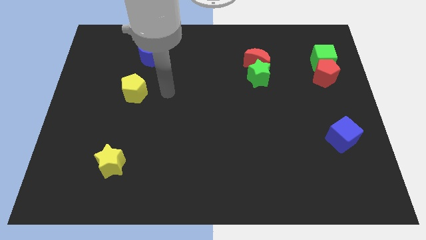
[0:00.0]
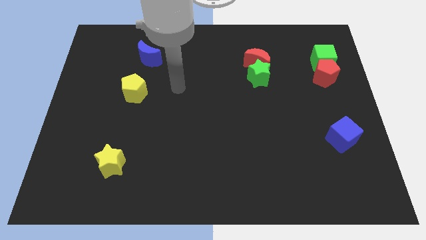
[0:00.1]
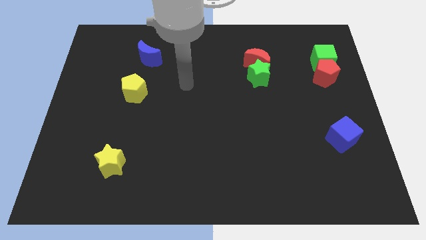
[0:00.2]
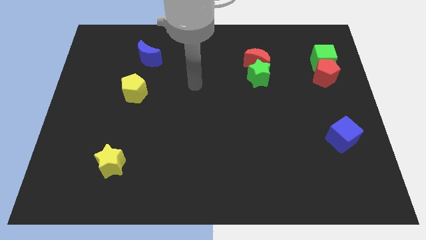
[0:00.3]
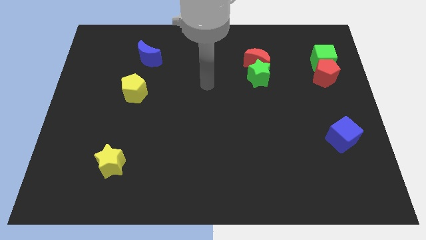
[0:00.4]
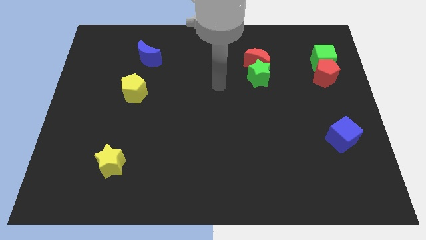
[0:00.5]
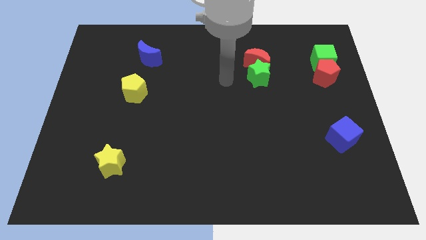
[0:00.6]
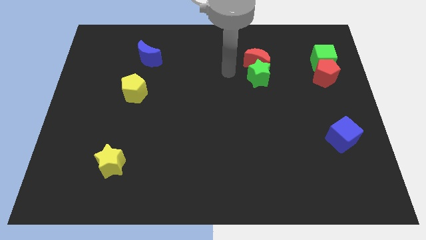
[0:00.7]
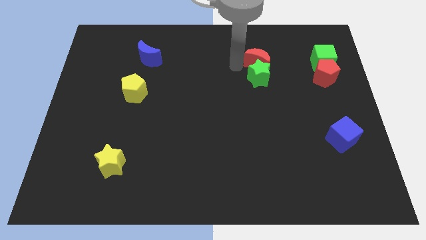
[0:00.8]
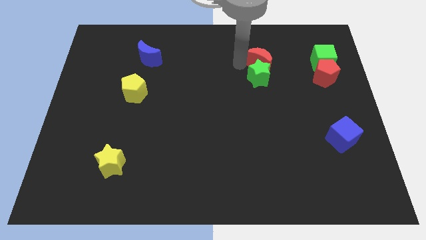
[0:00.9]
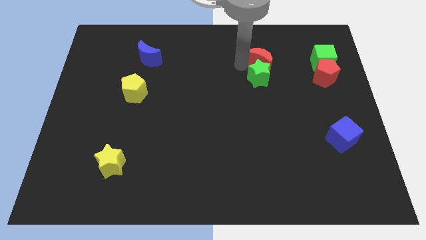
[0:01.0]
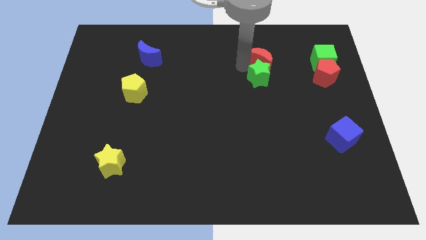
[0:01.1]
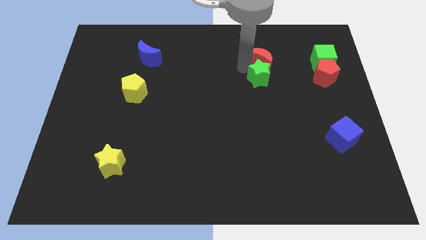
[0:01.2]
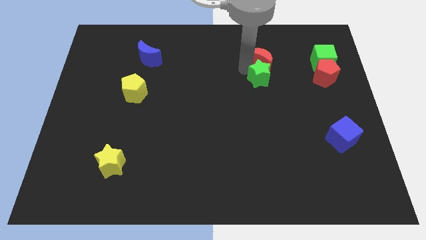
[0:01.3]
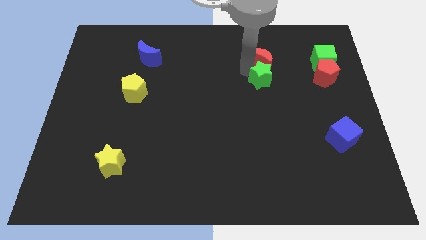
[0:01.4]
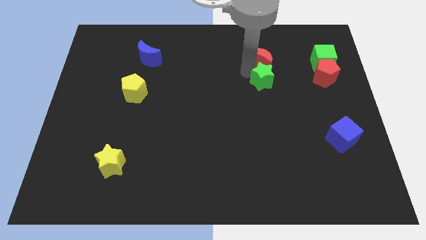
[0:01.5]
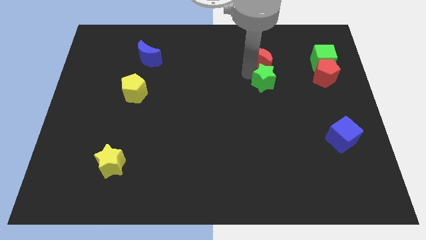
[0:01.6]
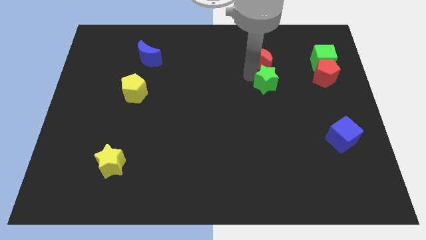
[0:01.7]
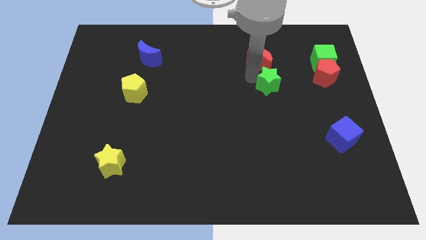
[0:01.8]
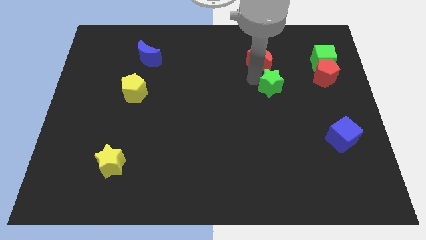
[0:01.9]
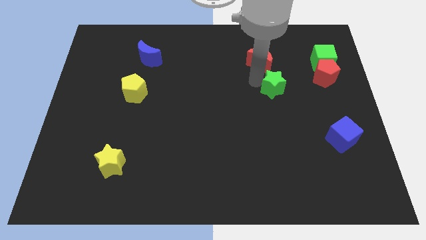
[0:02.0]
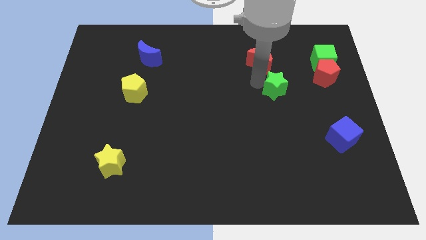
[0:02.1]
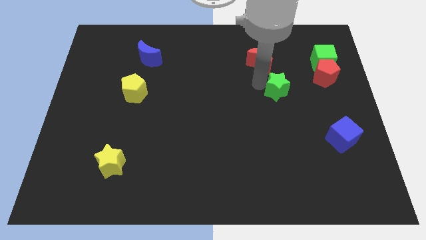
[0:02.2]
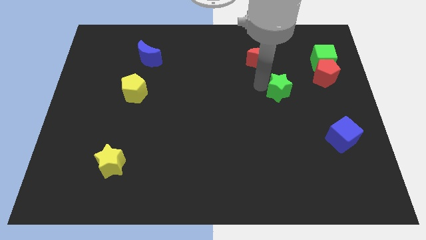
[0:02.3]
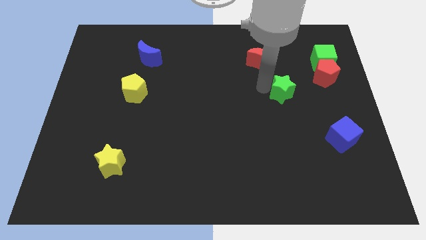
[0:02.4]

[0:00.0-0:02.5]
slide the green star a little bit down and to the right diagonally

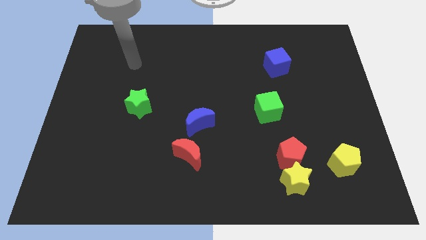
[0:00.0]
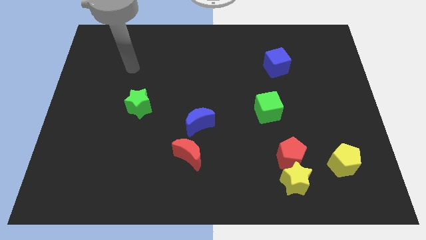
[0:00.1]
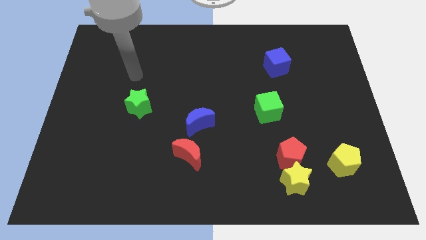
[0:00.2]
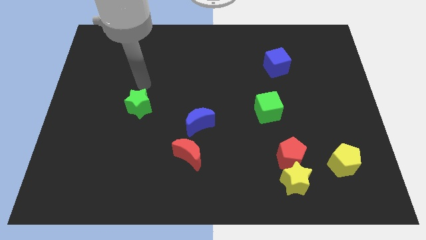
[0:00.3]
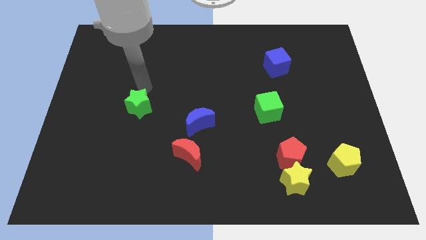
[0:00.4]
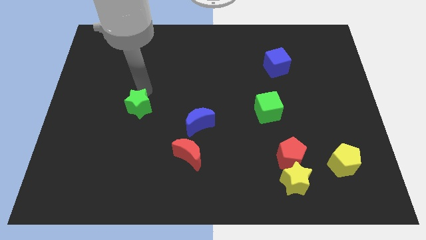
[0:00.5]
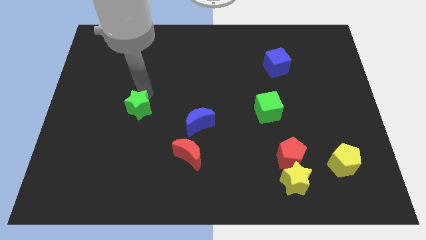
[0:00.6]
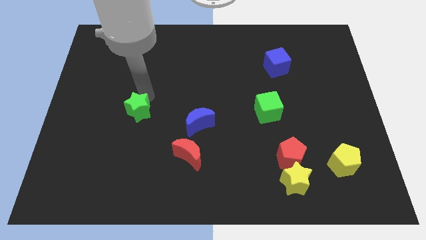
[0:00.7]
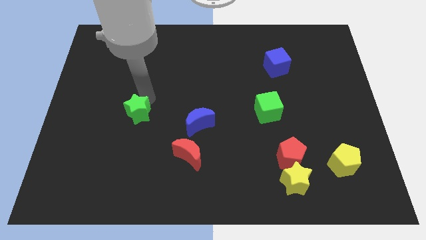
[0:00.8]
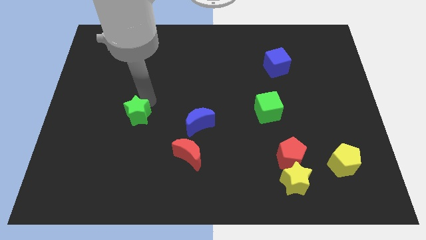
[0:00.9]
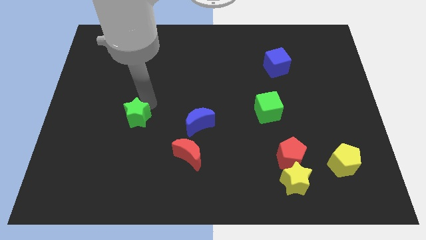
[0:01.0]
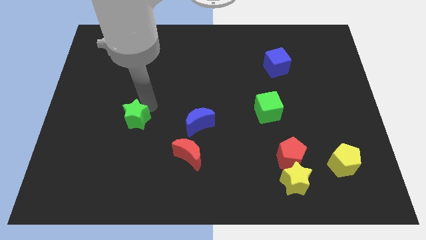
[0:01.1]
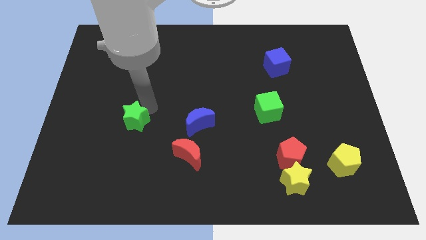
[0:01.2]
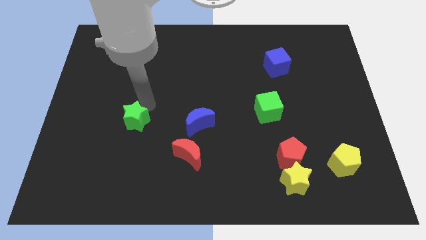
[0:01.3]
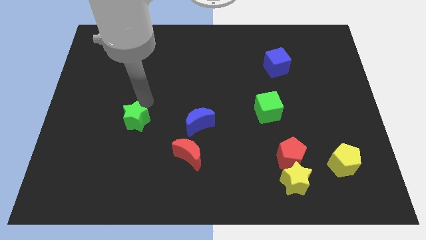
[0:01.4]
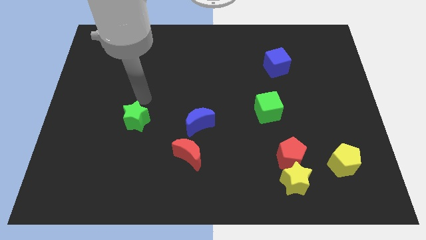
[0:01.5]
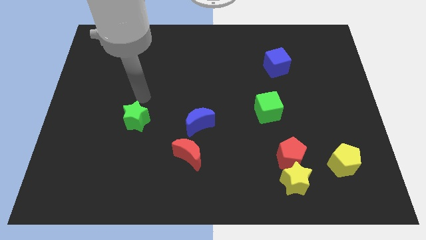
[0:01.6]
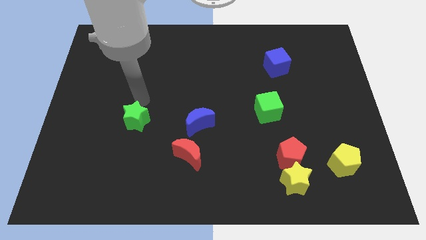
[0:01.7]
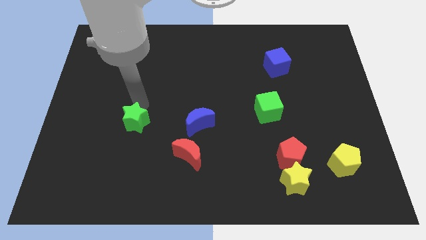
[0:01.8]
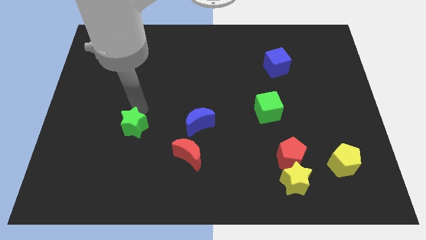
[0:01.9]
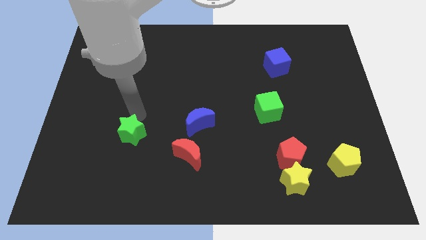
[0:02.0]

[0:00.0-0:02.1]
move the green star down a little bit

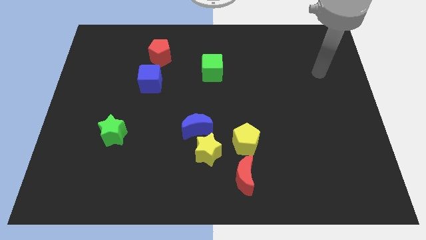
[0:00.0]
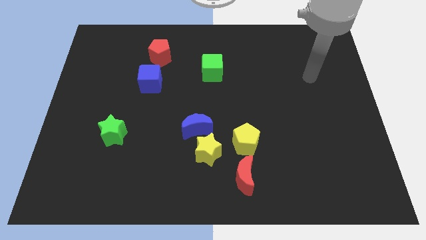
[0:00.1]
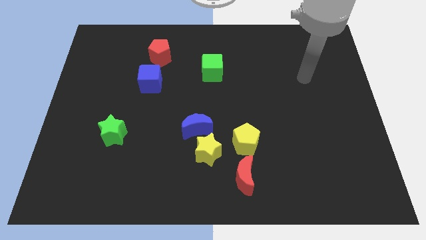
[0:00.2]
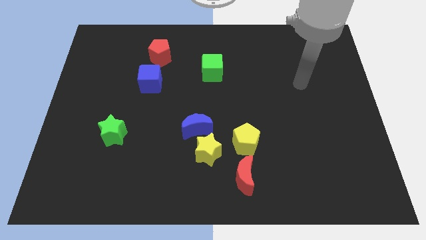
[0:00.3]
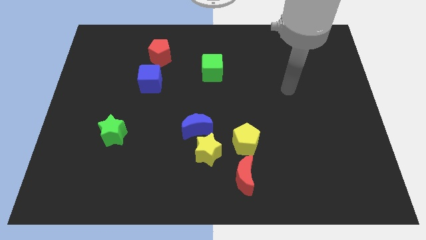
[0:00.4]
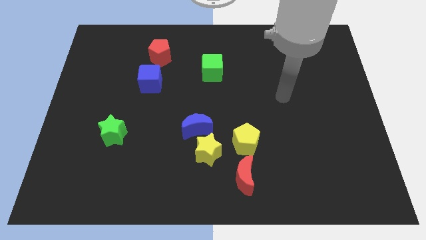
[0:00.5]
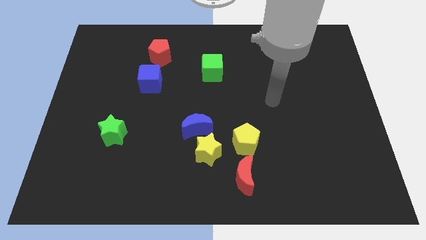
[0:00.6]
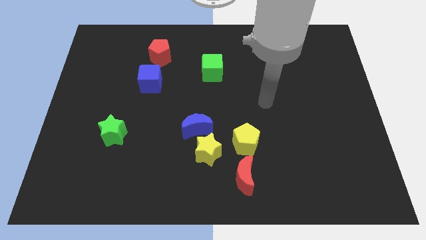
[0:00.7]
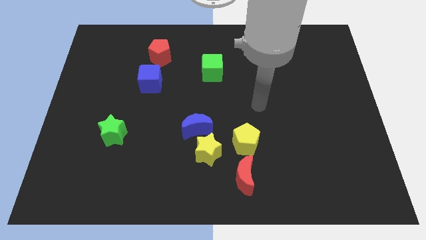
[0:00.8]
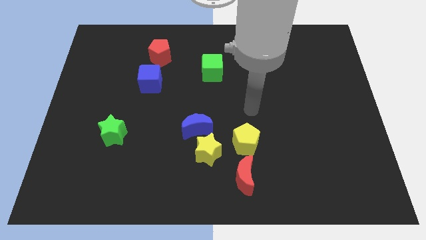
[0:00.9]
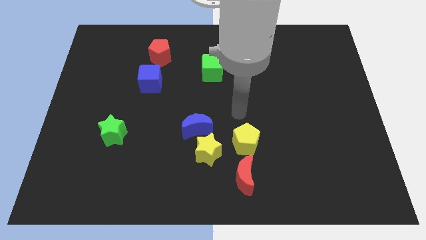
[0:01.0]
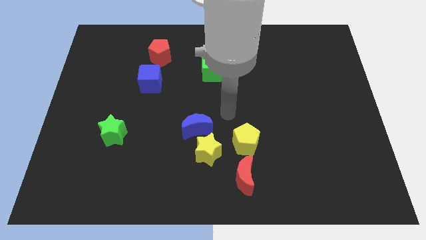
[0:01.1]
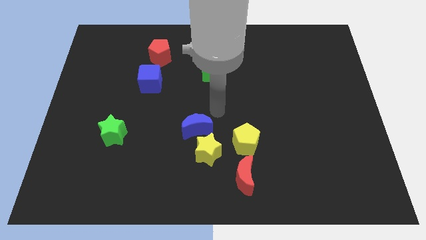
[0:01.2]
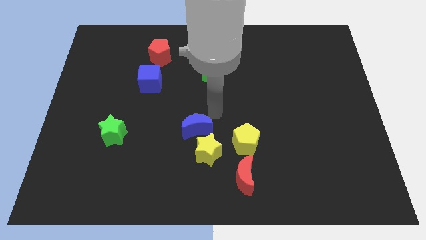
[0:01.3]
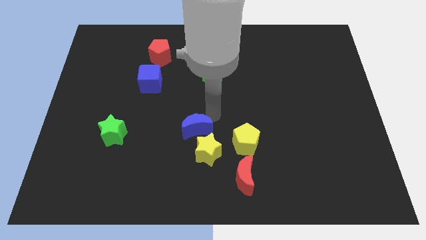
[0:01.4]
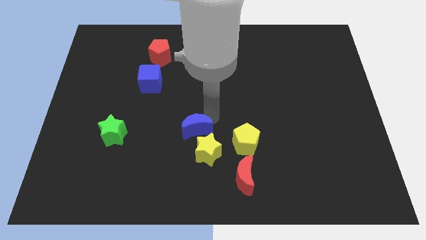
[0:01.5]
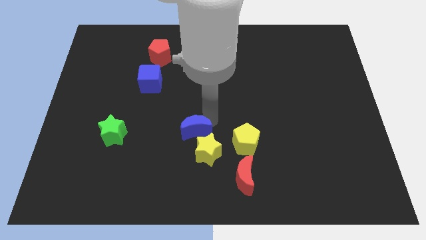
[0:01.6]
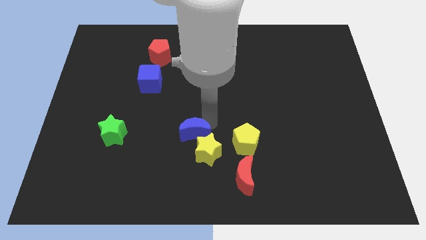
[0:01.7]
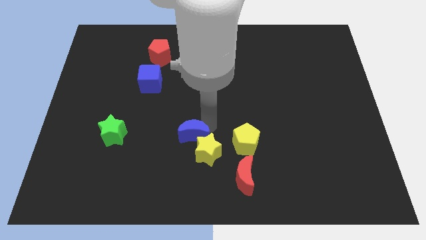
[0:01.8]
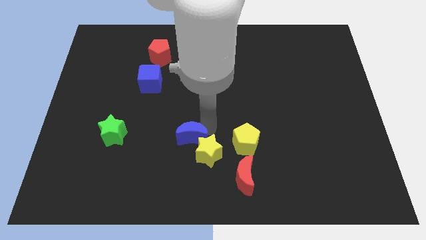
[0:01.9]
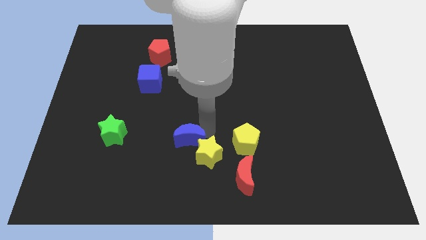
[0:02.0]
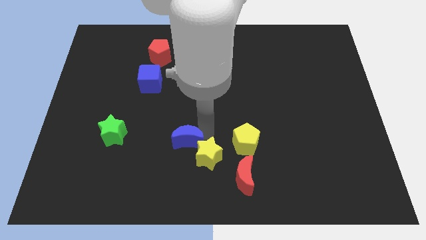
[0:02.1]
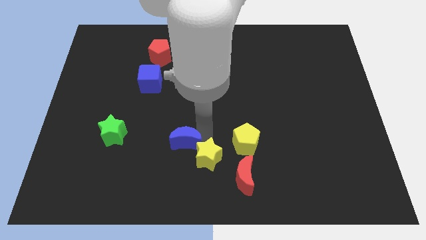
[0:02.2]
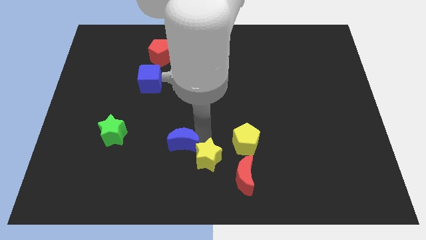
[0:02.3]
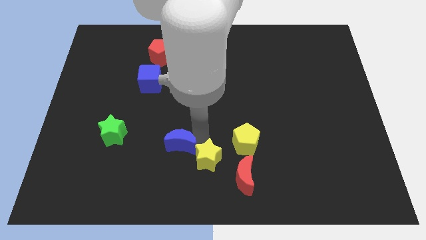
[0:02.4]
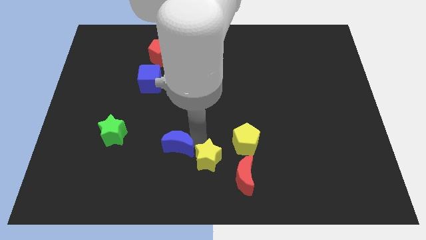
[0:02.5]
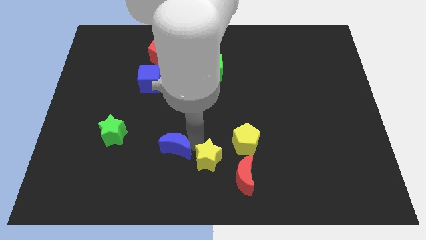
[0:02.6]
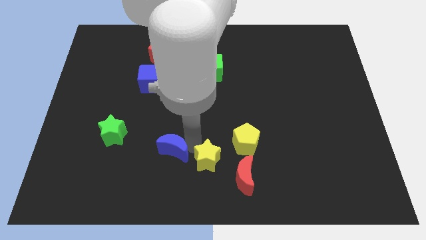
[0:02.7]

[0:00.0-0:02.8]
slightly move the blue moon down and left diagonally

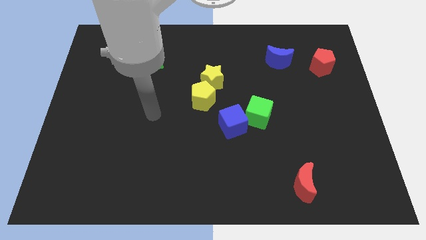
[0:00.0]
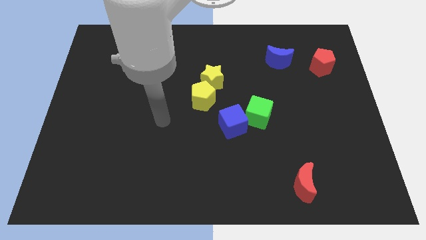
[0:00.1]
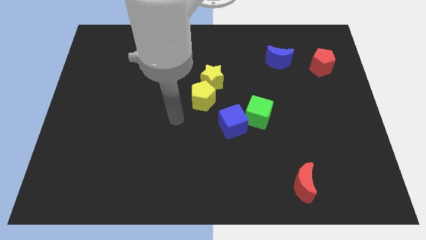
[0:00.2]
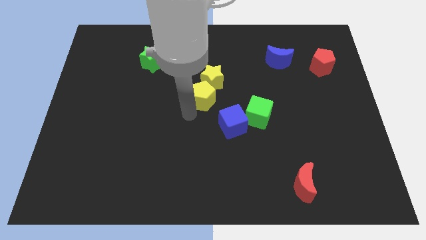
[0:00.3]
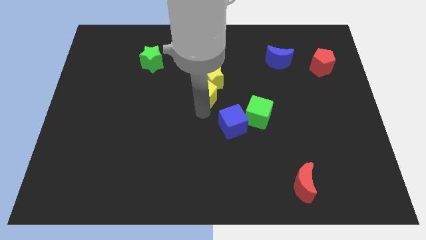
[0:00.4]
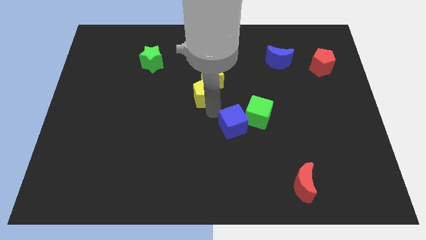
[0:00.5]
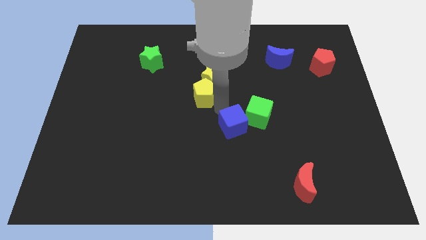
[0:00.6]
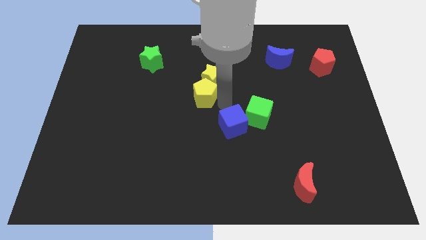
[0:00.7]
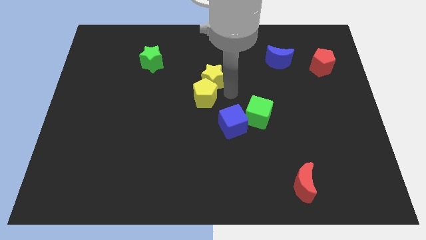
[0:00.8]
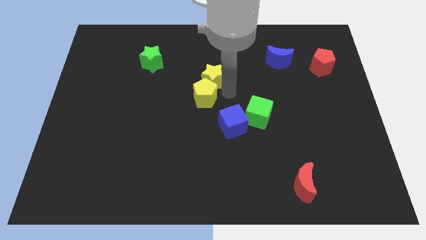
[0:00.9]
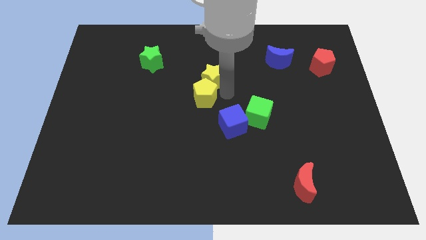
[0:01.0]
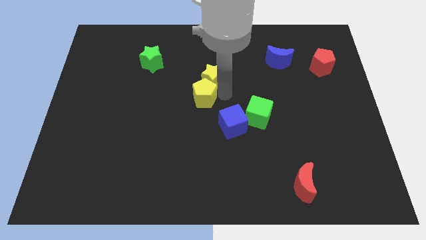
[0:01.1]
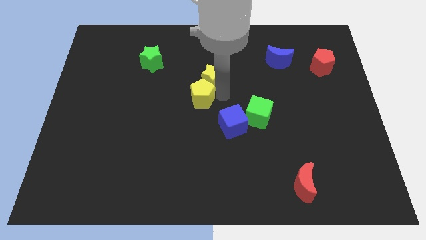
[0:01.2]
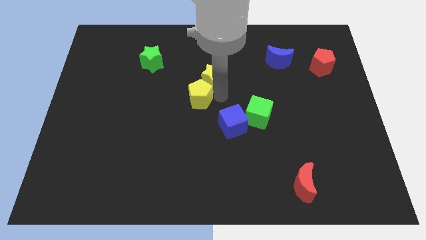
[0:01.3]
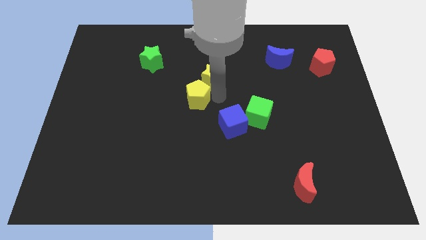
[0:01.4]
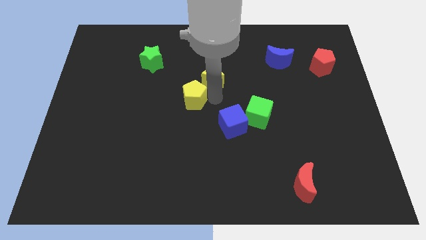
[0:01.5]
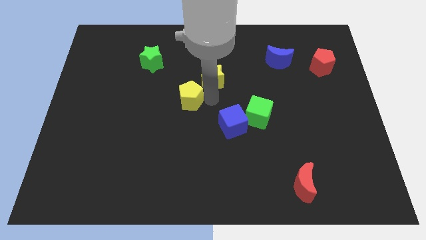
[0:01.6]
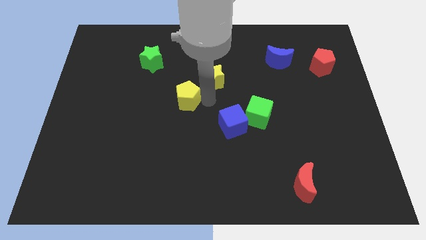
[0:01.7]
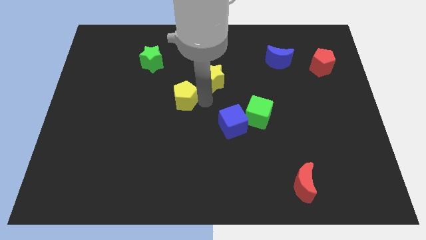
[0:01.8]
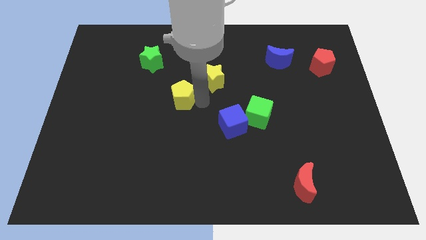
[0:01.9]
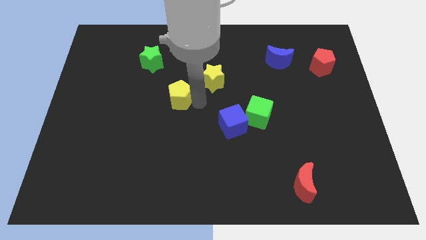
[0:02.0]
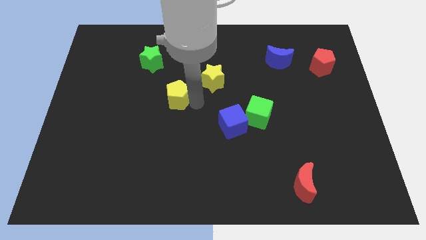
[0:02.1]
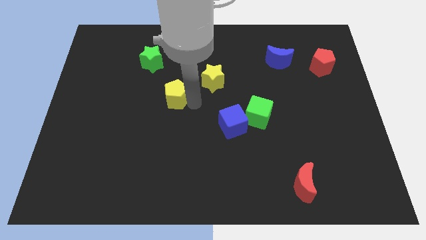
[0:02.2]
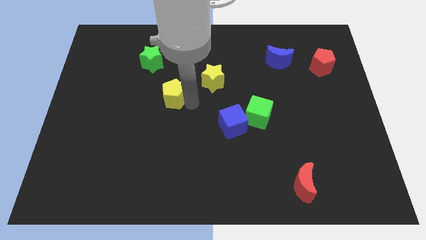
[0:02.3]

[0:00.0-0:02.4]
slide the yellow pentagon a little left
